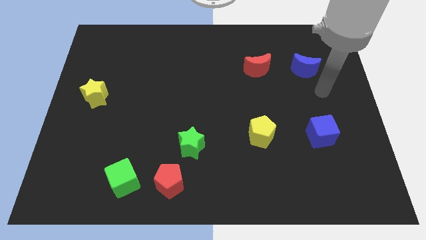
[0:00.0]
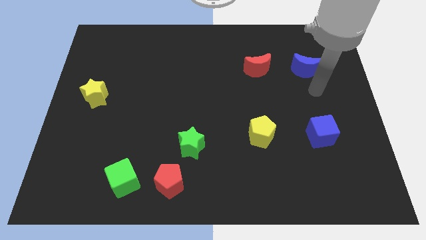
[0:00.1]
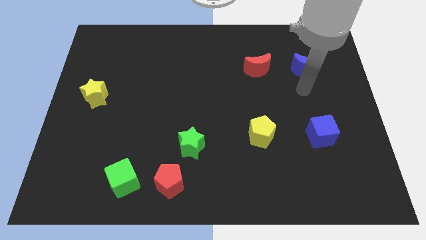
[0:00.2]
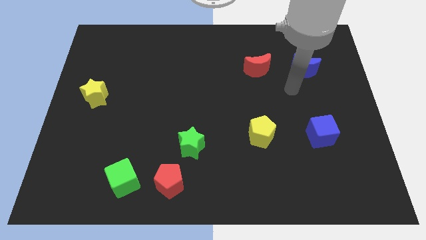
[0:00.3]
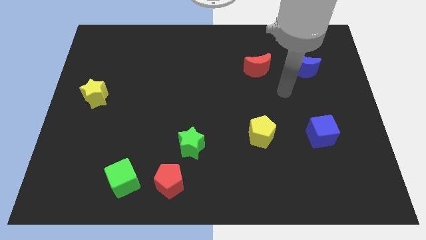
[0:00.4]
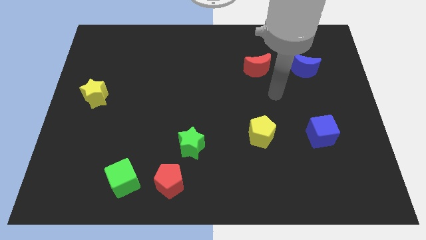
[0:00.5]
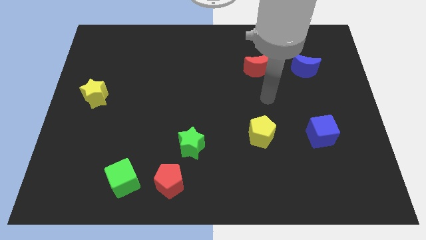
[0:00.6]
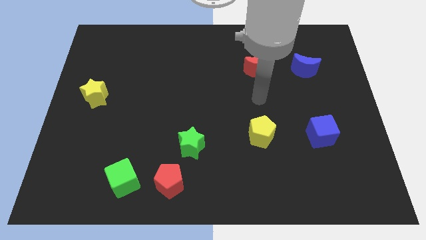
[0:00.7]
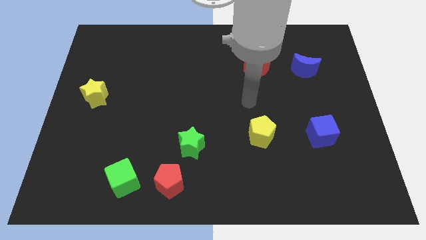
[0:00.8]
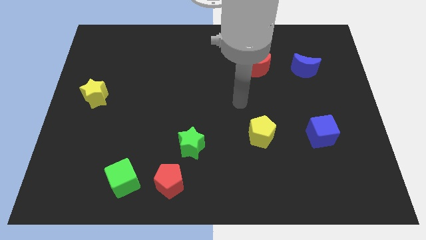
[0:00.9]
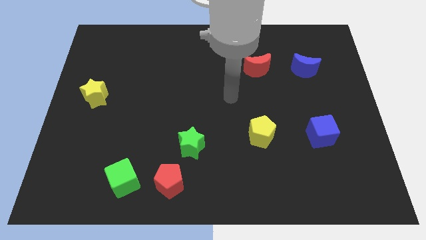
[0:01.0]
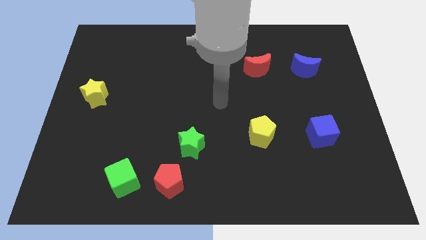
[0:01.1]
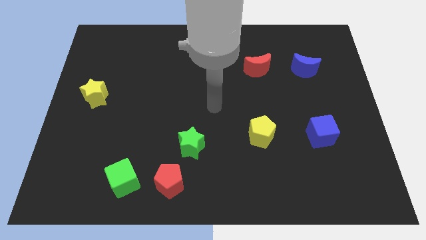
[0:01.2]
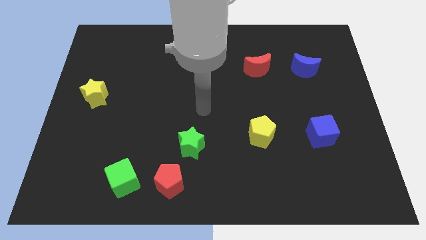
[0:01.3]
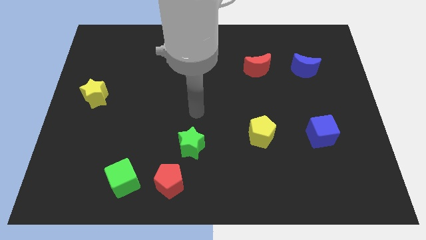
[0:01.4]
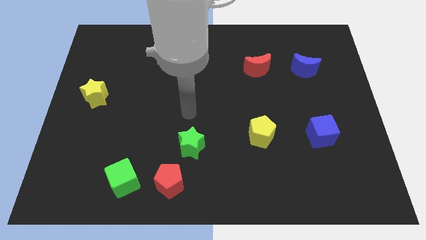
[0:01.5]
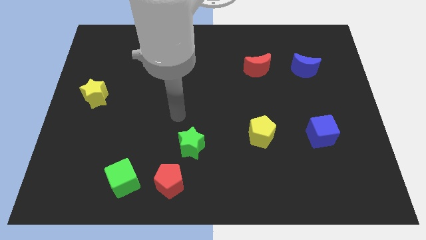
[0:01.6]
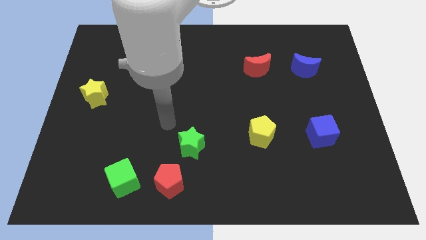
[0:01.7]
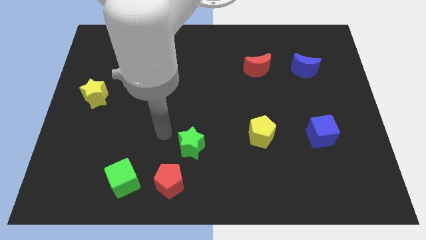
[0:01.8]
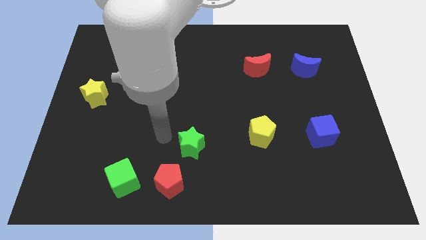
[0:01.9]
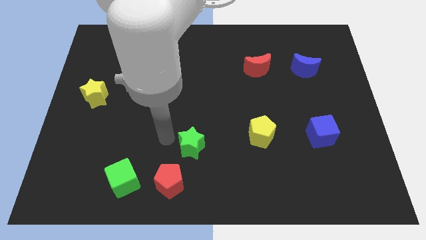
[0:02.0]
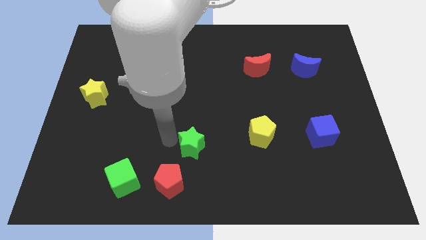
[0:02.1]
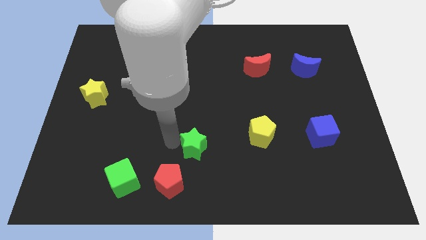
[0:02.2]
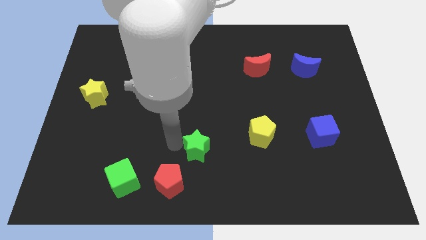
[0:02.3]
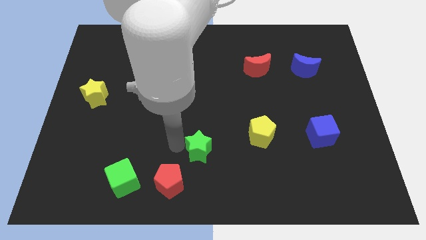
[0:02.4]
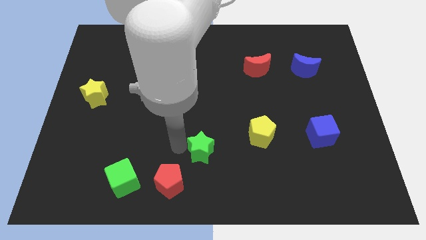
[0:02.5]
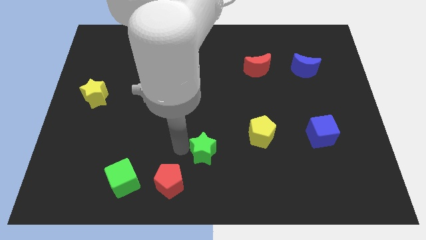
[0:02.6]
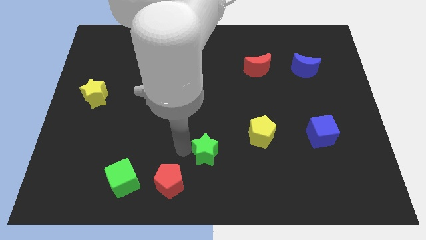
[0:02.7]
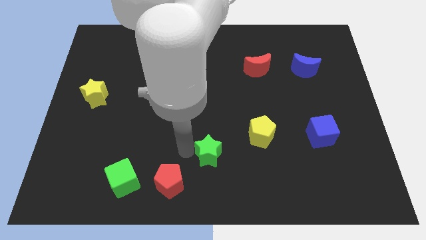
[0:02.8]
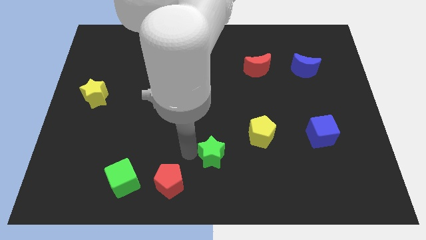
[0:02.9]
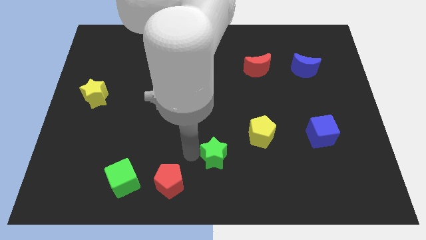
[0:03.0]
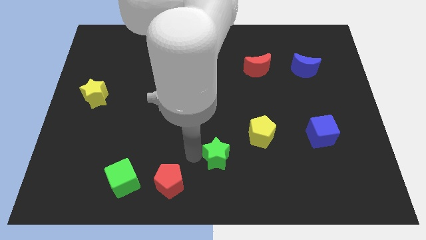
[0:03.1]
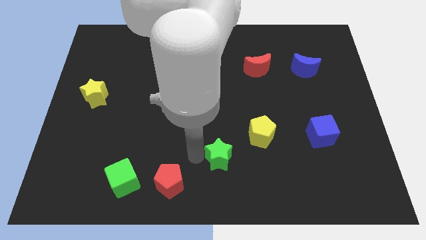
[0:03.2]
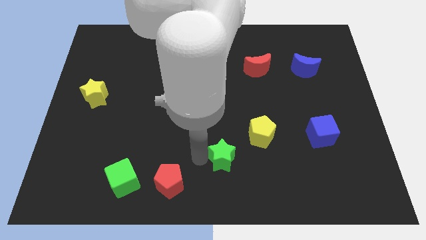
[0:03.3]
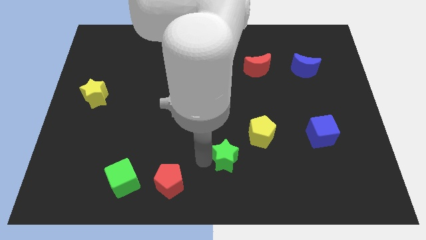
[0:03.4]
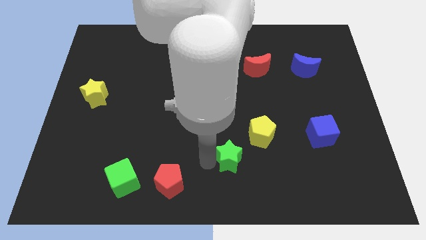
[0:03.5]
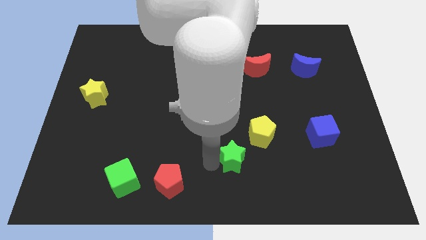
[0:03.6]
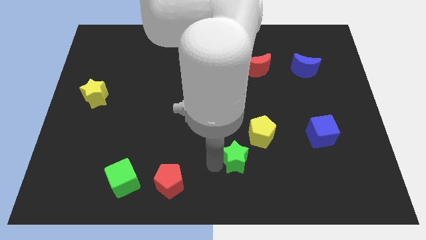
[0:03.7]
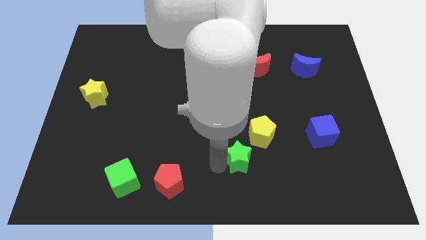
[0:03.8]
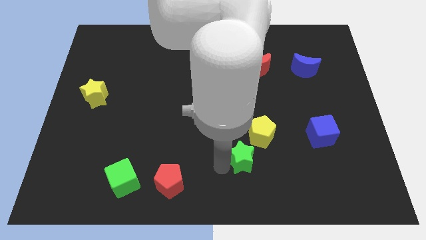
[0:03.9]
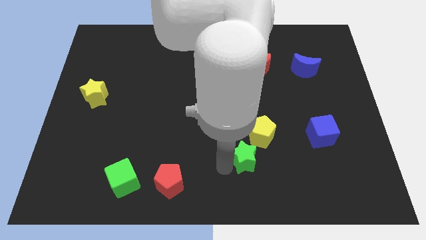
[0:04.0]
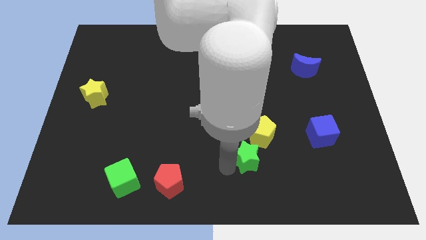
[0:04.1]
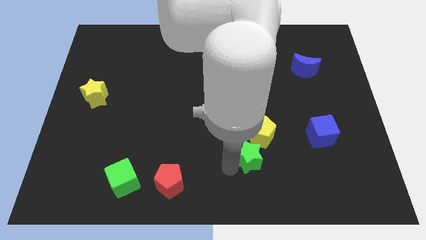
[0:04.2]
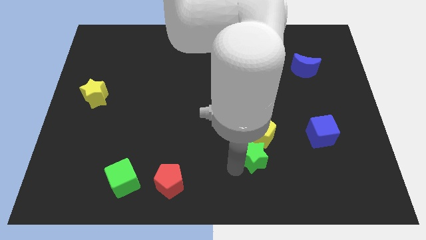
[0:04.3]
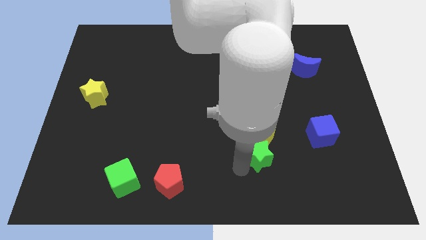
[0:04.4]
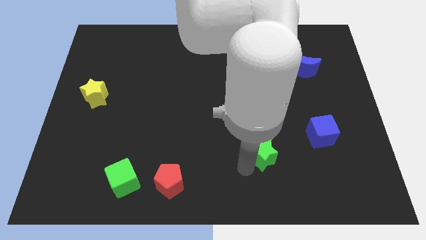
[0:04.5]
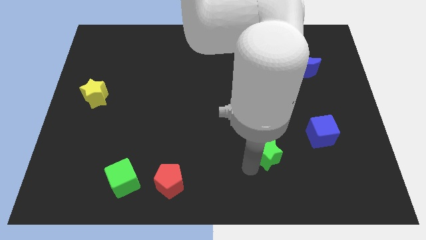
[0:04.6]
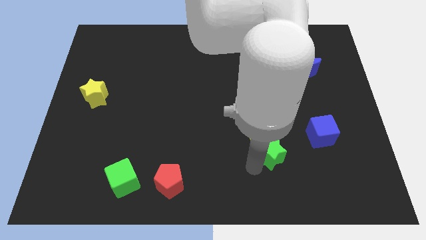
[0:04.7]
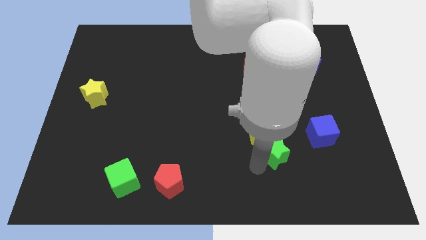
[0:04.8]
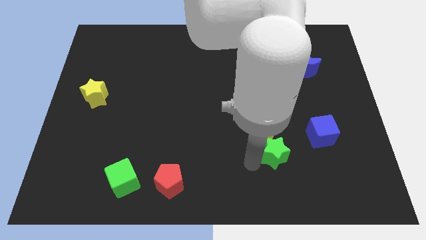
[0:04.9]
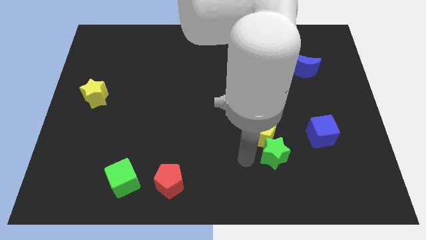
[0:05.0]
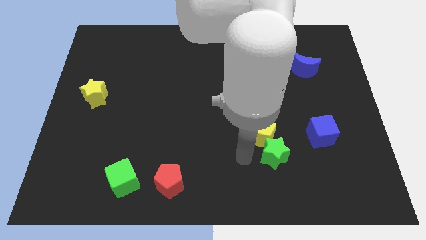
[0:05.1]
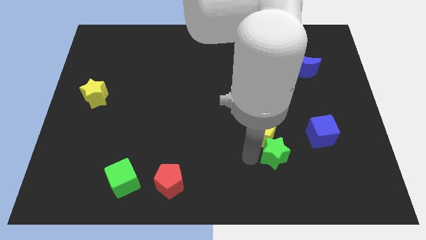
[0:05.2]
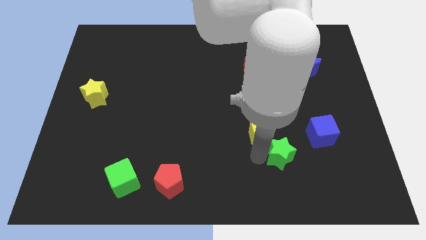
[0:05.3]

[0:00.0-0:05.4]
push the green star to the bottom left side of the blue cube

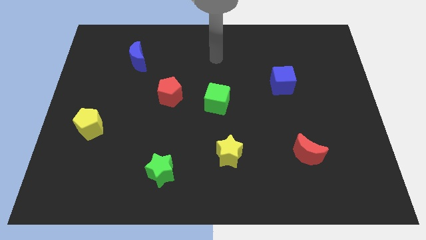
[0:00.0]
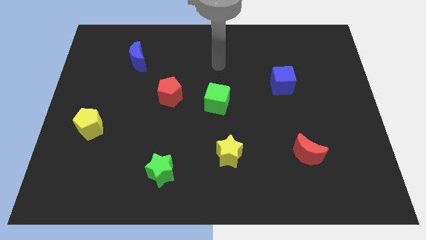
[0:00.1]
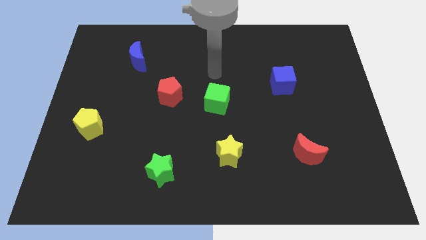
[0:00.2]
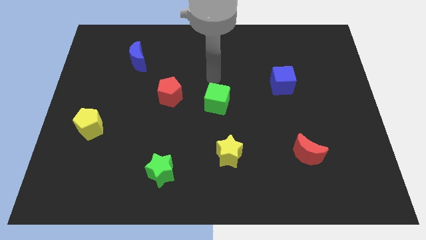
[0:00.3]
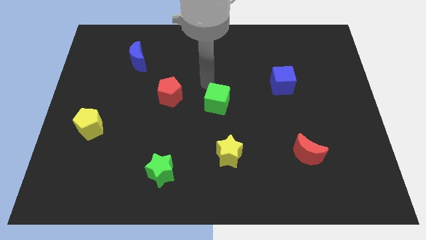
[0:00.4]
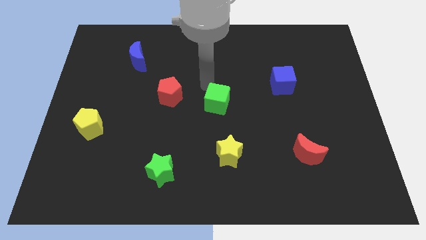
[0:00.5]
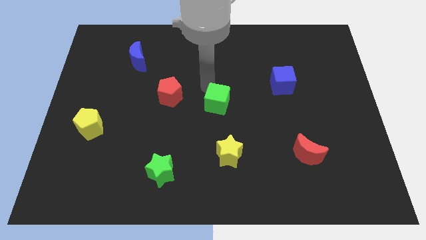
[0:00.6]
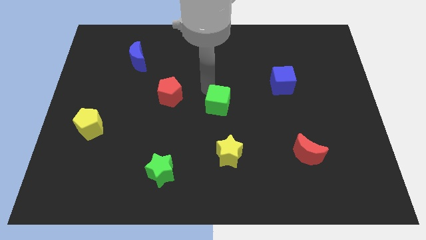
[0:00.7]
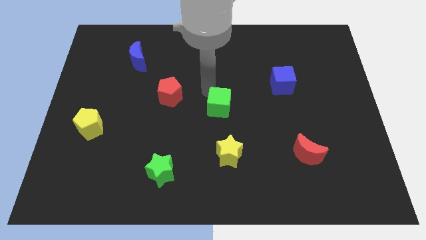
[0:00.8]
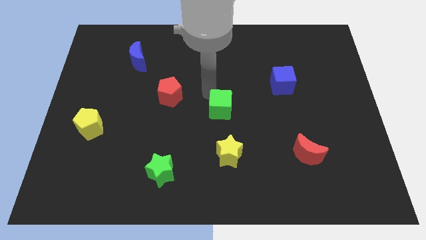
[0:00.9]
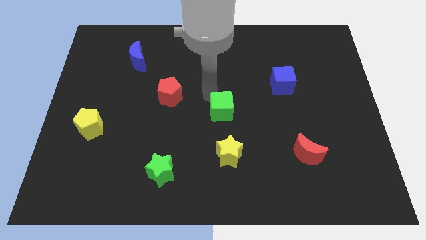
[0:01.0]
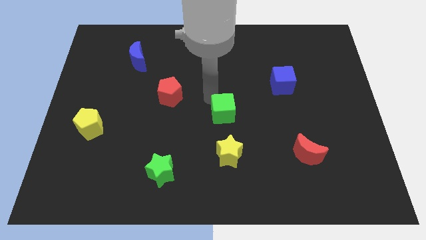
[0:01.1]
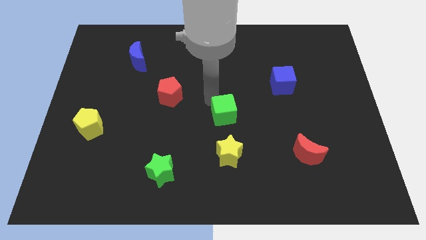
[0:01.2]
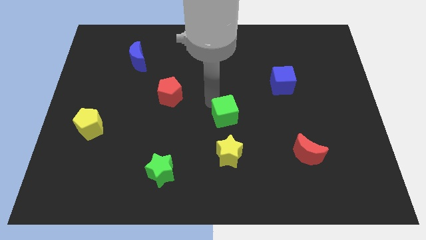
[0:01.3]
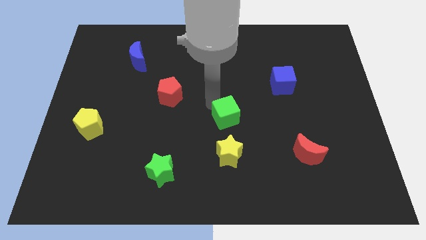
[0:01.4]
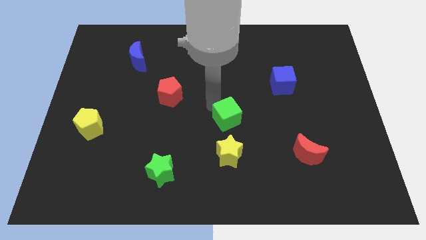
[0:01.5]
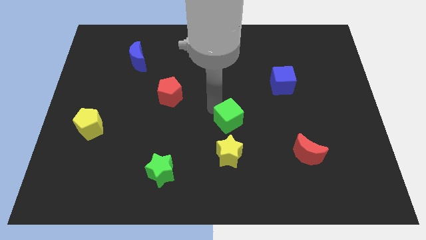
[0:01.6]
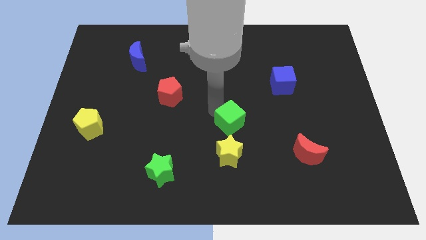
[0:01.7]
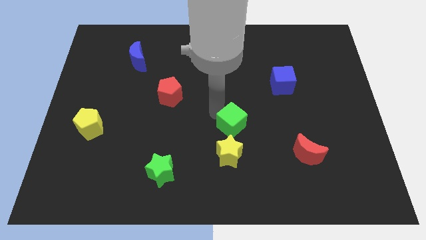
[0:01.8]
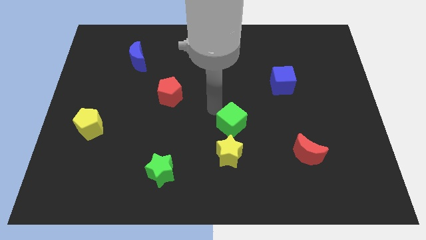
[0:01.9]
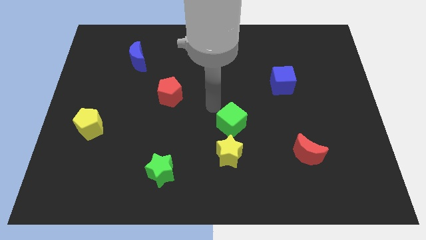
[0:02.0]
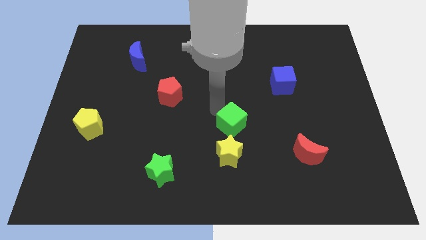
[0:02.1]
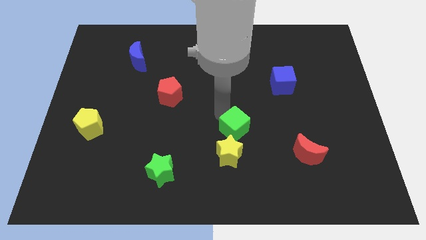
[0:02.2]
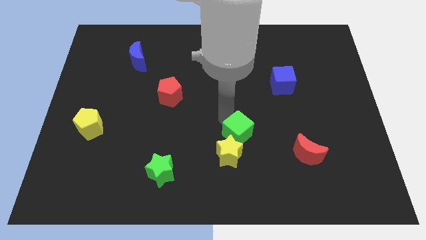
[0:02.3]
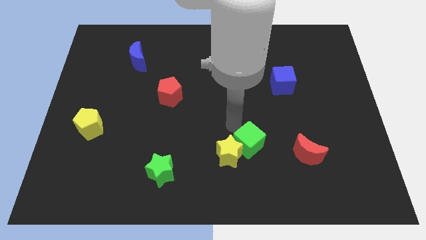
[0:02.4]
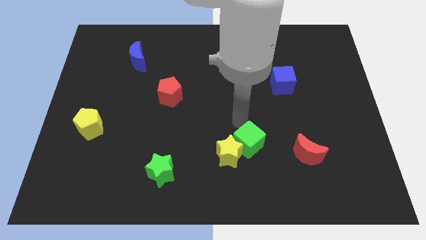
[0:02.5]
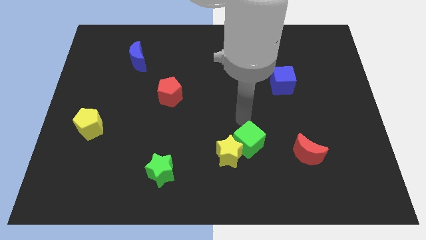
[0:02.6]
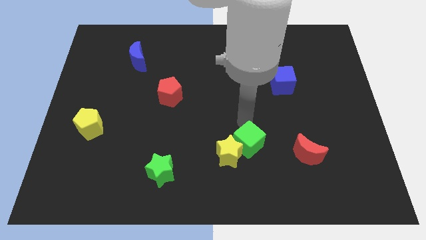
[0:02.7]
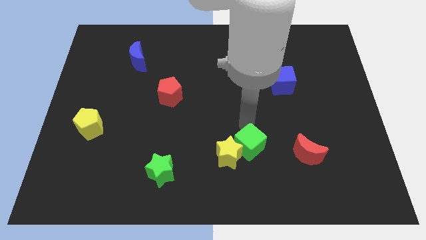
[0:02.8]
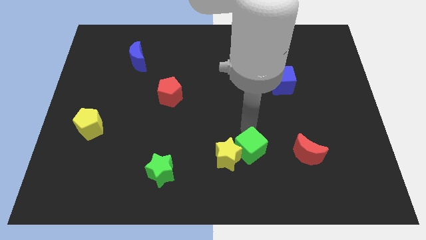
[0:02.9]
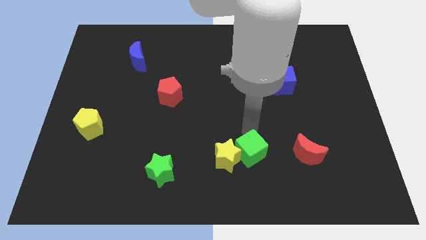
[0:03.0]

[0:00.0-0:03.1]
put the green cube diagonally down and to the right of the yellow star

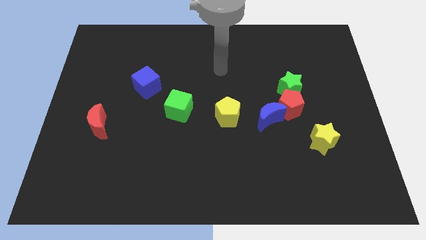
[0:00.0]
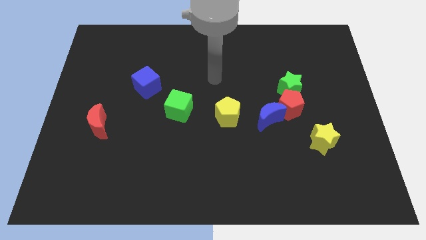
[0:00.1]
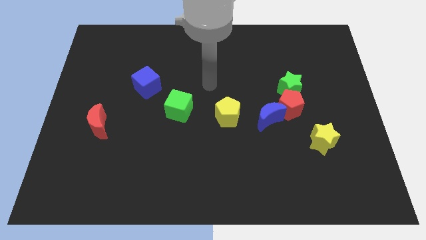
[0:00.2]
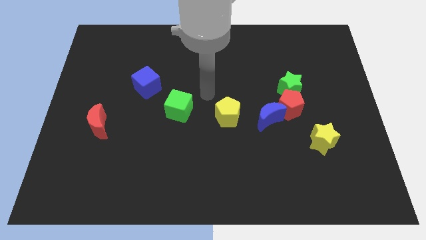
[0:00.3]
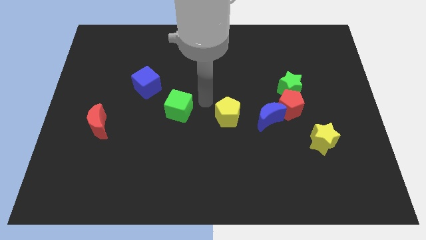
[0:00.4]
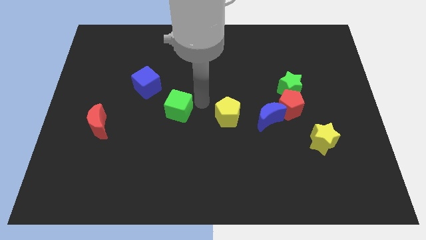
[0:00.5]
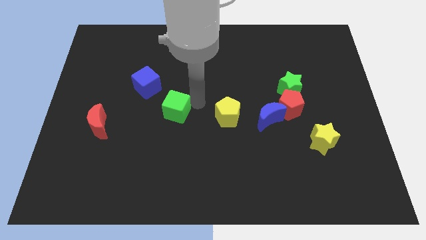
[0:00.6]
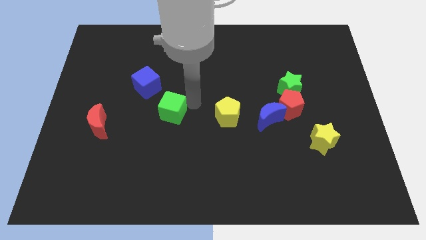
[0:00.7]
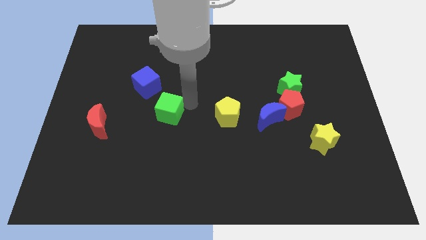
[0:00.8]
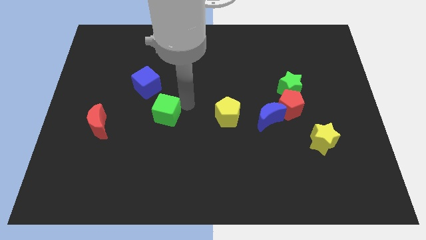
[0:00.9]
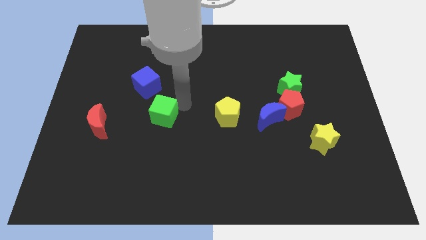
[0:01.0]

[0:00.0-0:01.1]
put the green cube to the bottom of the blue cube
